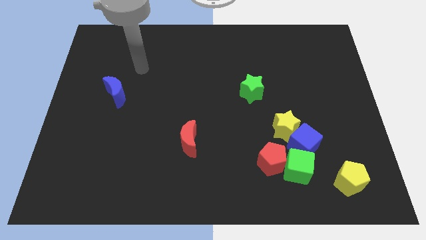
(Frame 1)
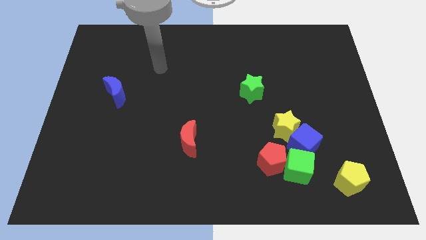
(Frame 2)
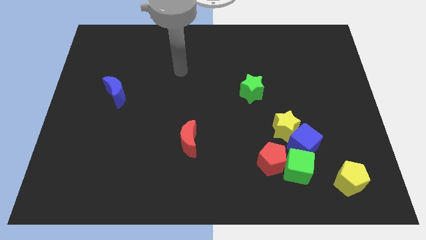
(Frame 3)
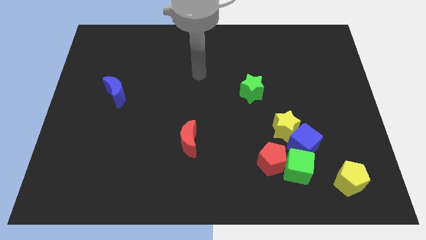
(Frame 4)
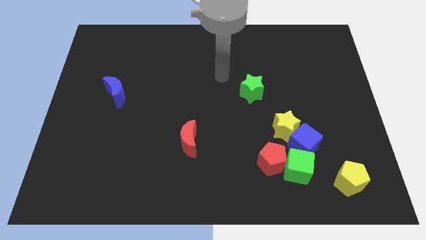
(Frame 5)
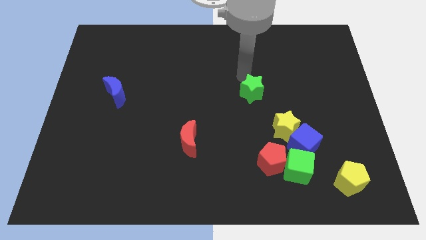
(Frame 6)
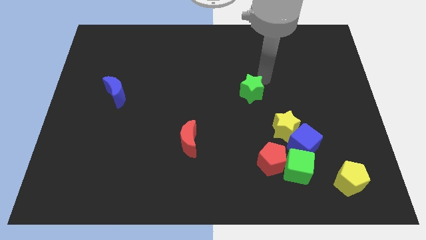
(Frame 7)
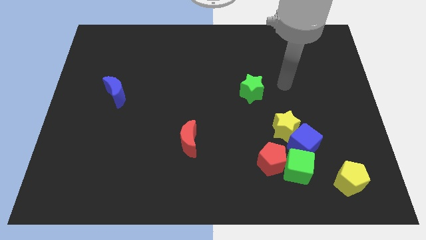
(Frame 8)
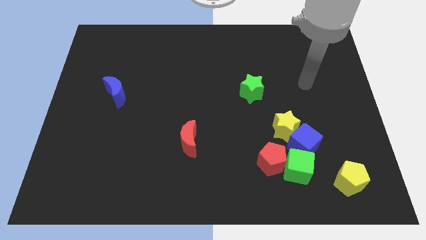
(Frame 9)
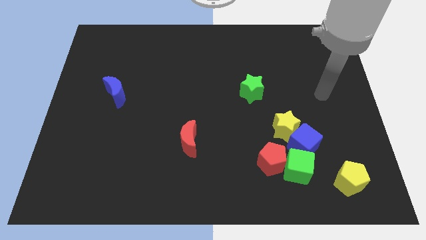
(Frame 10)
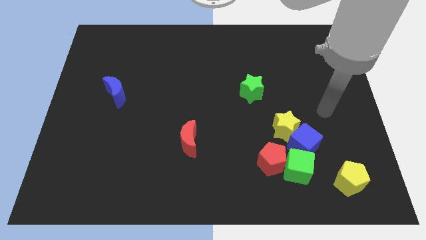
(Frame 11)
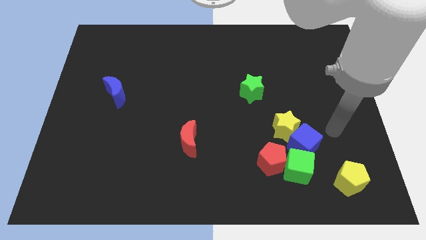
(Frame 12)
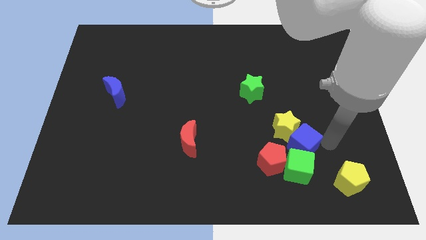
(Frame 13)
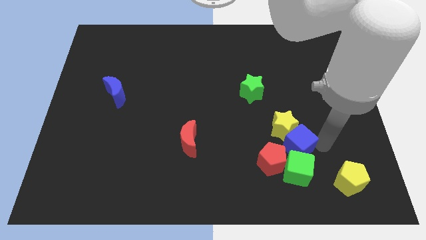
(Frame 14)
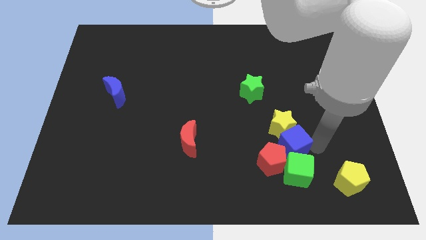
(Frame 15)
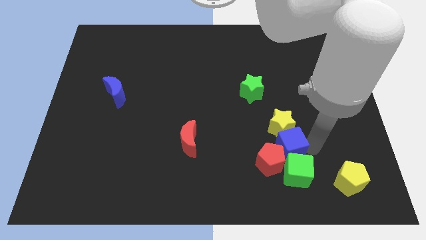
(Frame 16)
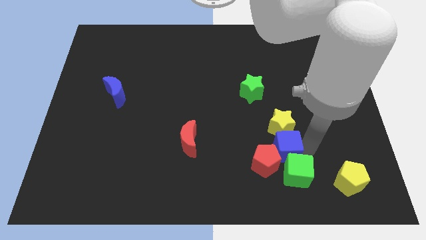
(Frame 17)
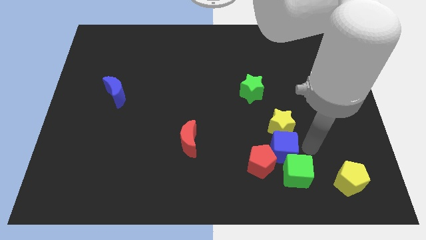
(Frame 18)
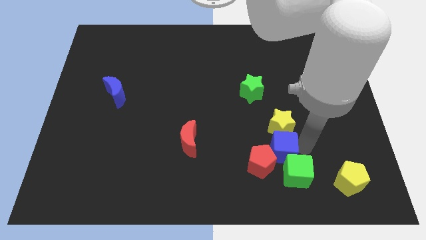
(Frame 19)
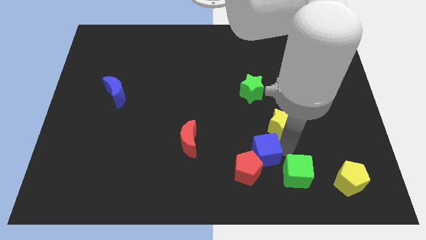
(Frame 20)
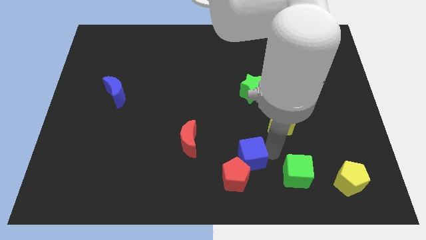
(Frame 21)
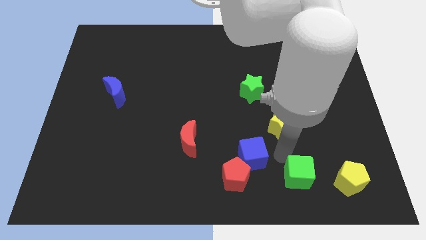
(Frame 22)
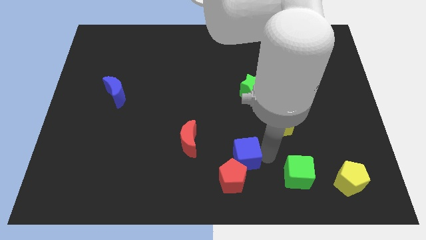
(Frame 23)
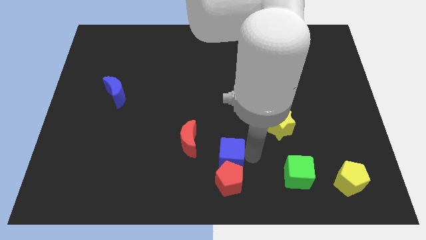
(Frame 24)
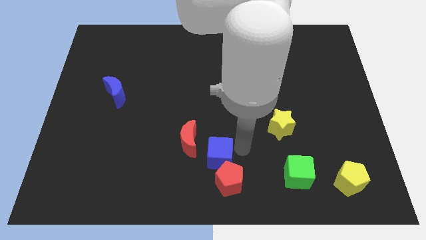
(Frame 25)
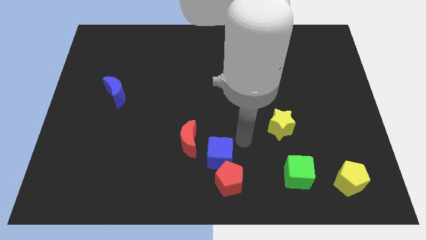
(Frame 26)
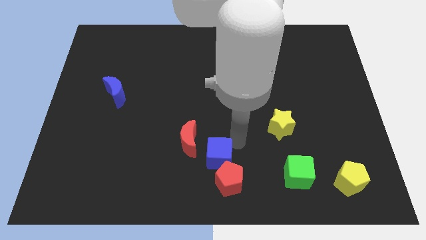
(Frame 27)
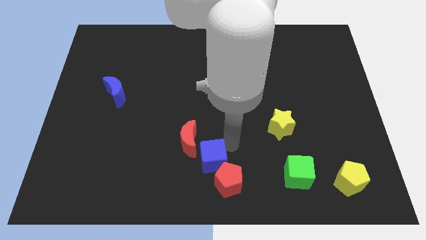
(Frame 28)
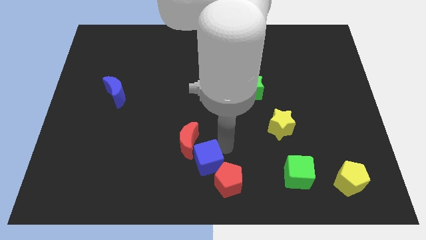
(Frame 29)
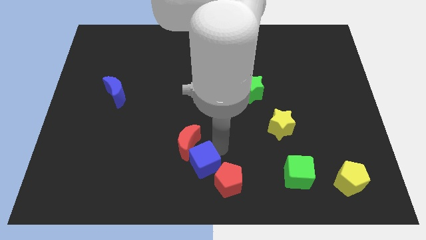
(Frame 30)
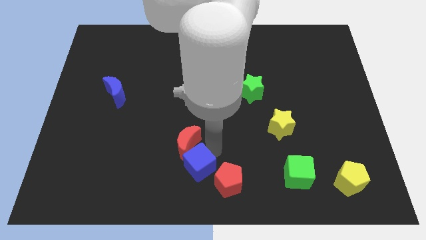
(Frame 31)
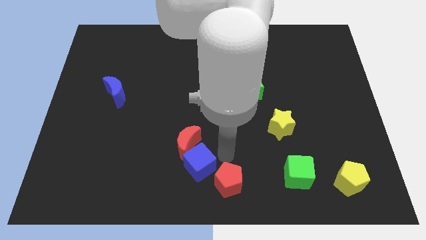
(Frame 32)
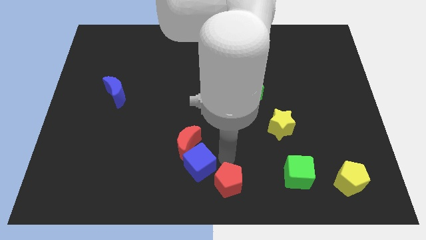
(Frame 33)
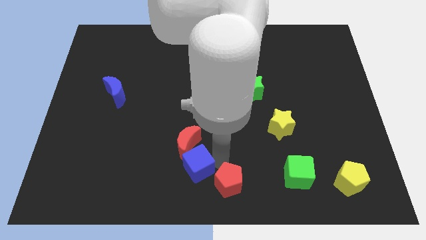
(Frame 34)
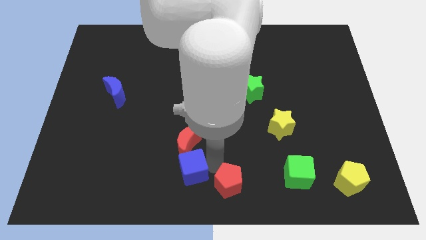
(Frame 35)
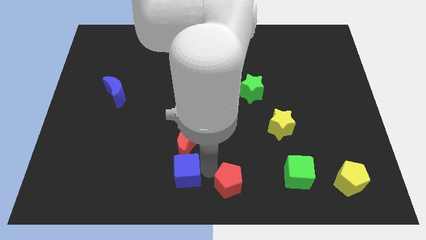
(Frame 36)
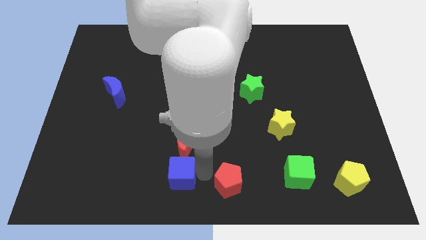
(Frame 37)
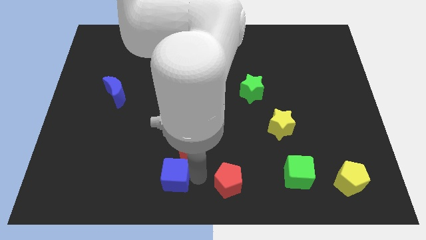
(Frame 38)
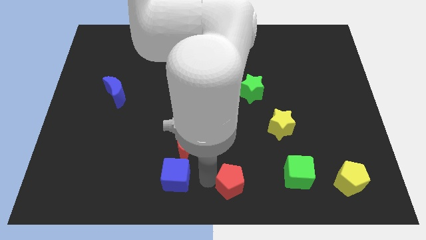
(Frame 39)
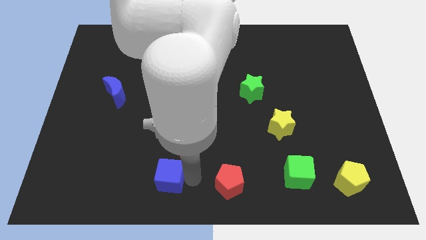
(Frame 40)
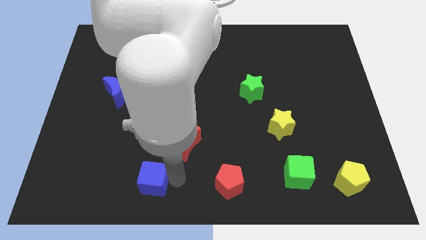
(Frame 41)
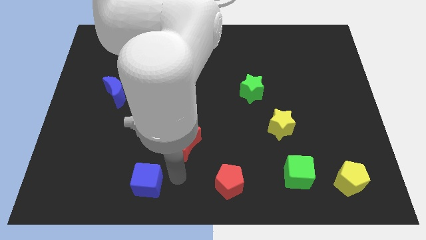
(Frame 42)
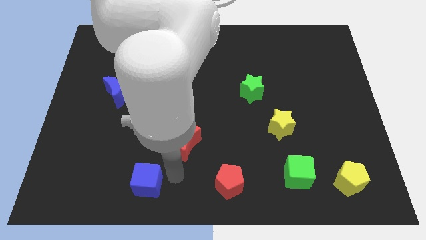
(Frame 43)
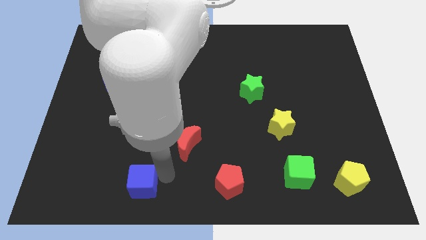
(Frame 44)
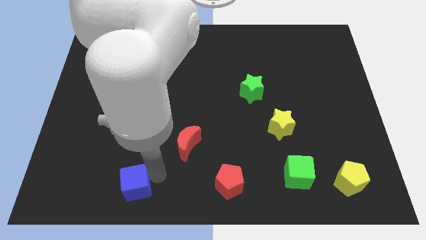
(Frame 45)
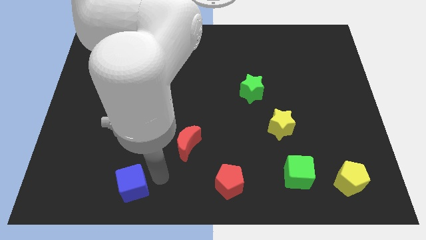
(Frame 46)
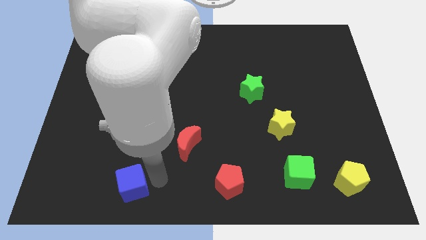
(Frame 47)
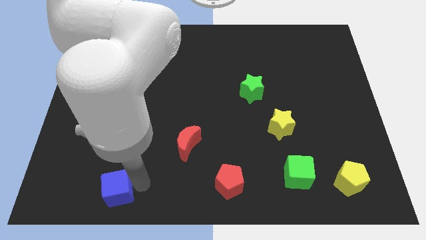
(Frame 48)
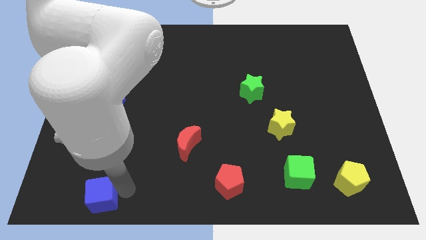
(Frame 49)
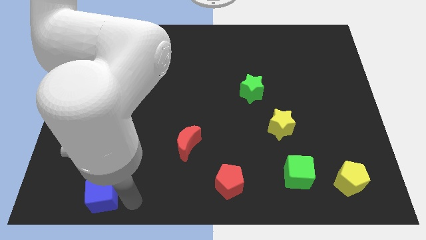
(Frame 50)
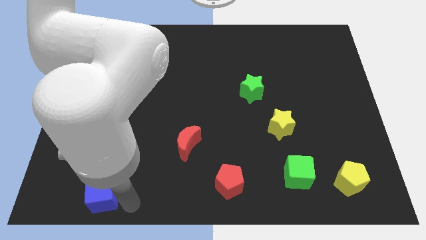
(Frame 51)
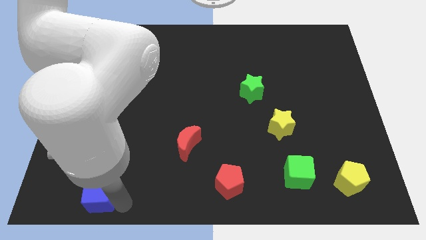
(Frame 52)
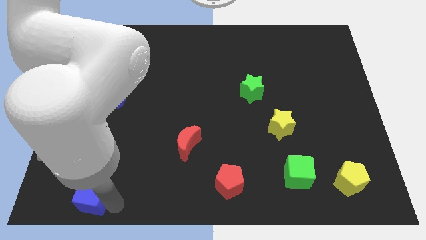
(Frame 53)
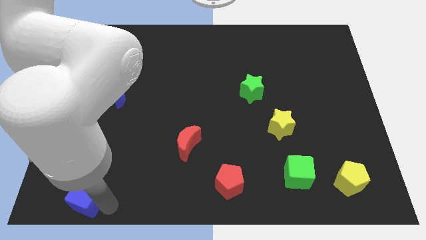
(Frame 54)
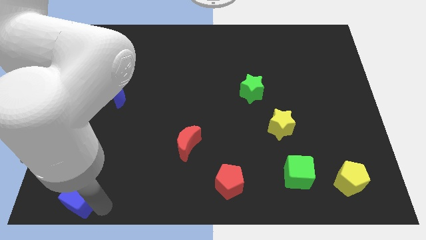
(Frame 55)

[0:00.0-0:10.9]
slide the blue cube to the bottom left

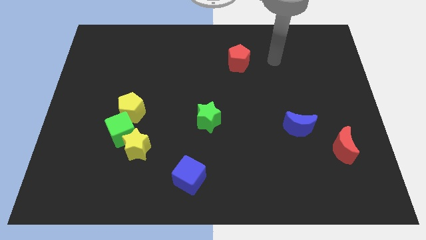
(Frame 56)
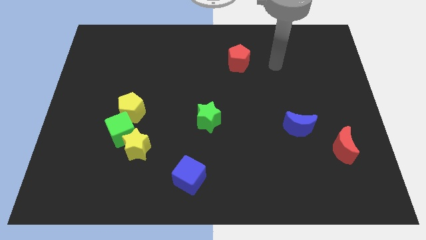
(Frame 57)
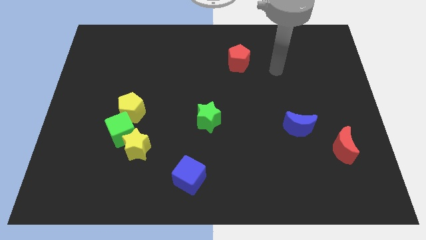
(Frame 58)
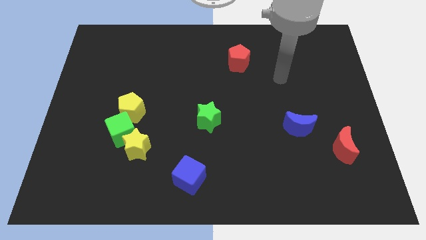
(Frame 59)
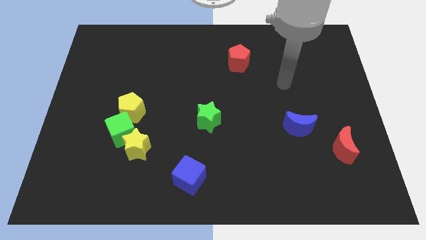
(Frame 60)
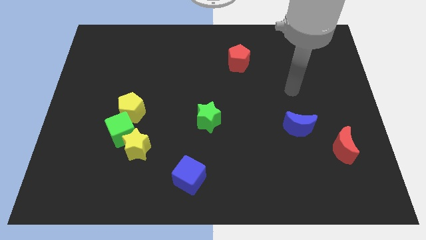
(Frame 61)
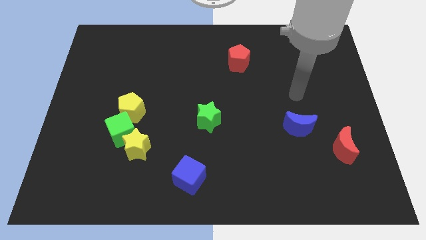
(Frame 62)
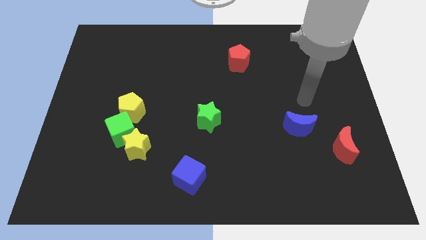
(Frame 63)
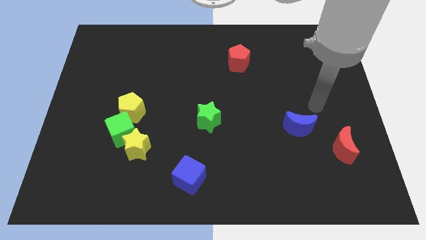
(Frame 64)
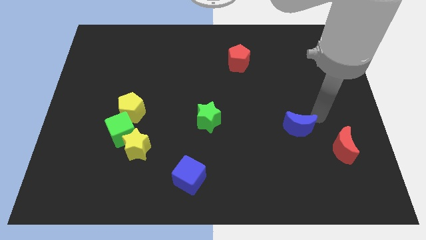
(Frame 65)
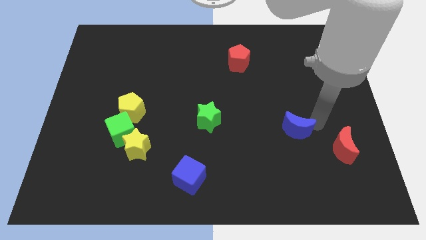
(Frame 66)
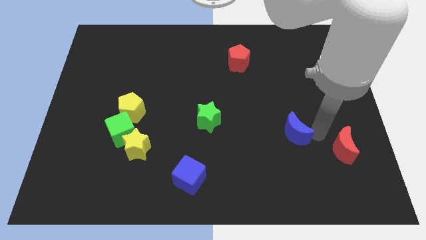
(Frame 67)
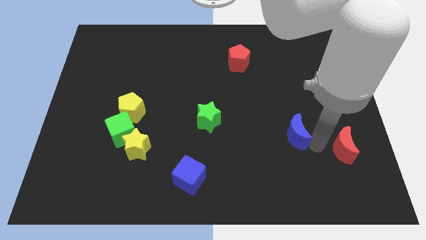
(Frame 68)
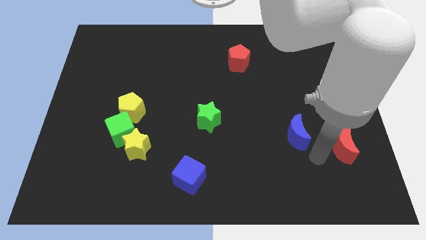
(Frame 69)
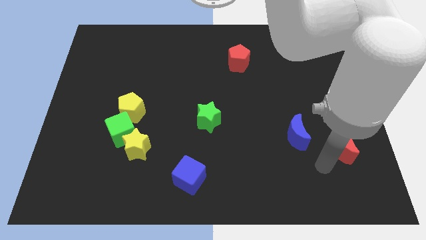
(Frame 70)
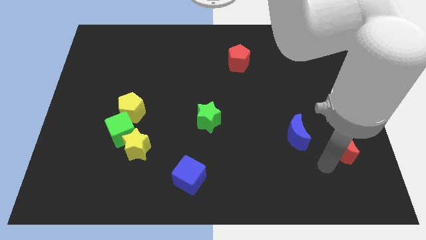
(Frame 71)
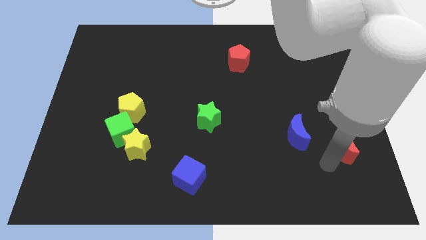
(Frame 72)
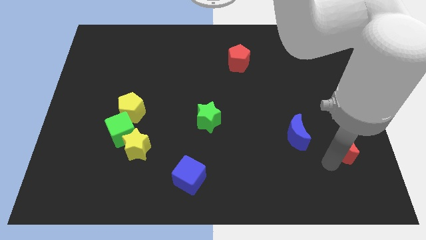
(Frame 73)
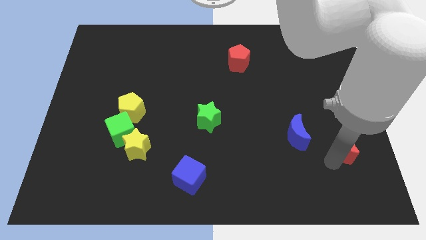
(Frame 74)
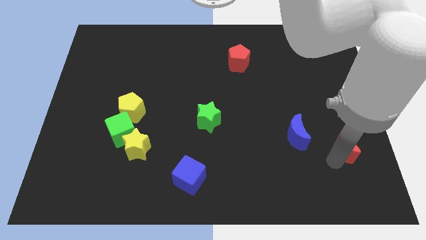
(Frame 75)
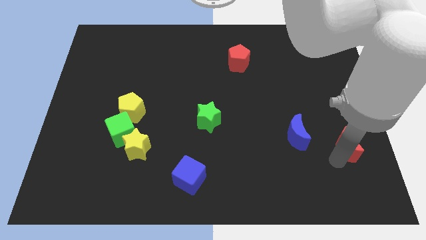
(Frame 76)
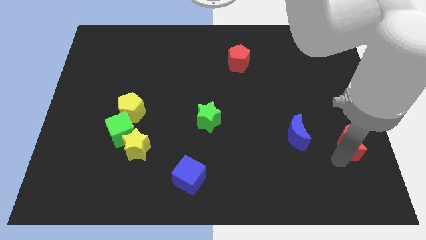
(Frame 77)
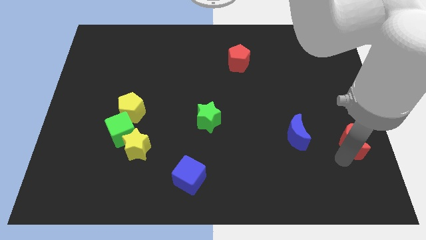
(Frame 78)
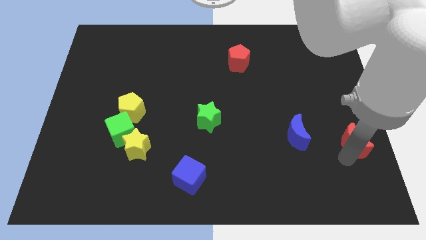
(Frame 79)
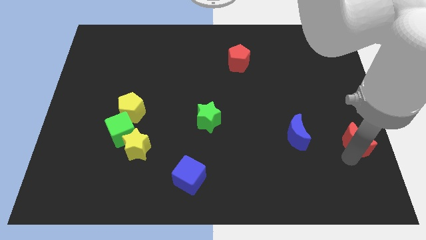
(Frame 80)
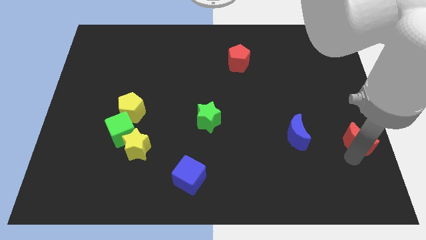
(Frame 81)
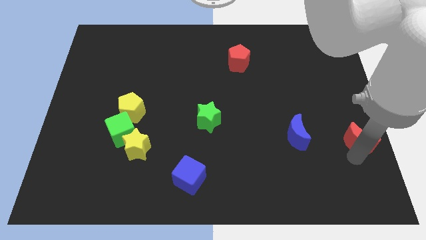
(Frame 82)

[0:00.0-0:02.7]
slide the red moon to the right side
